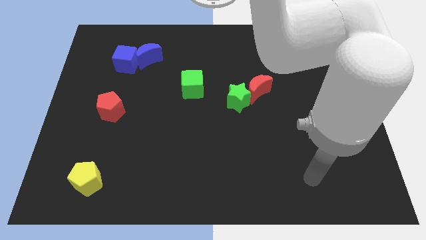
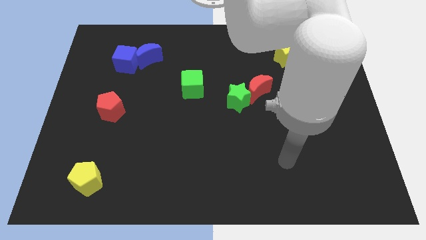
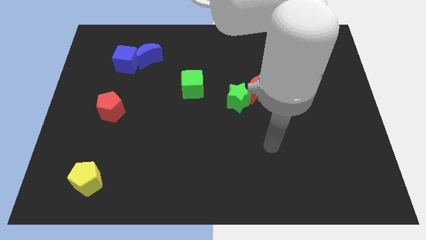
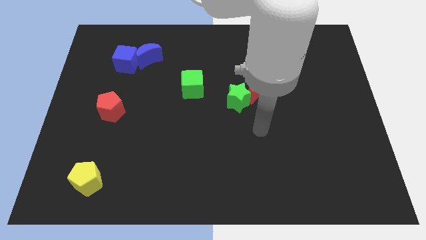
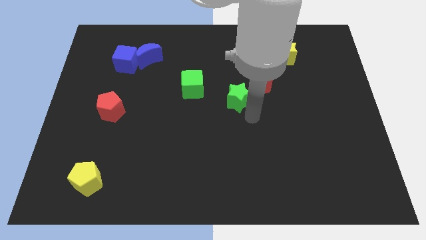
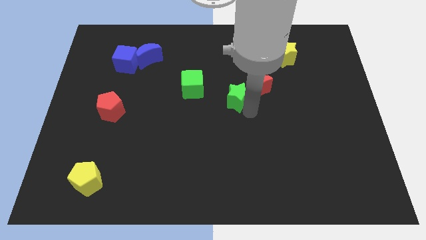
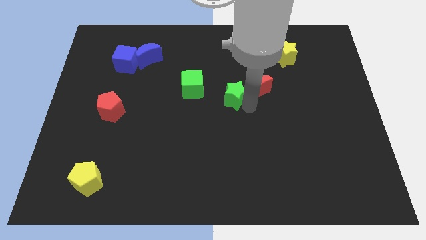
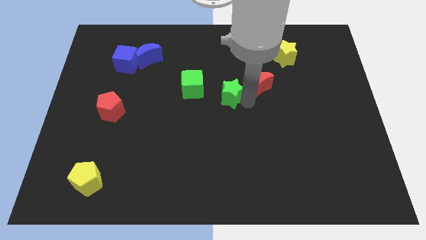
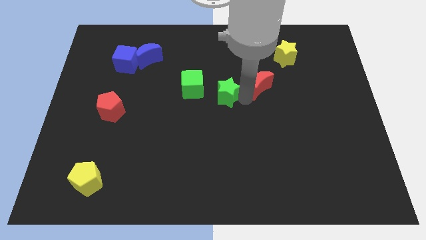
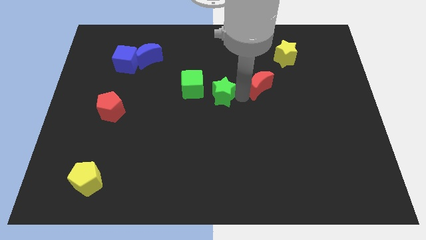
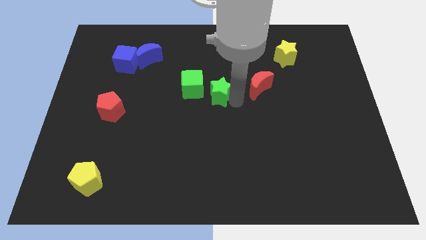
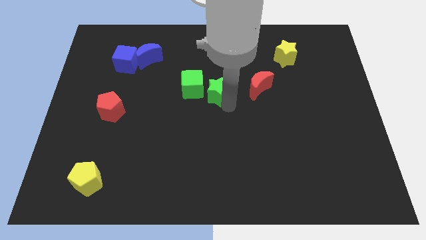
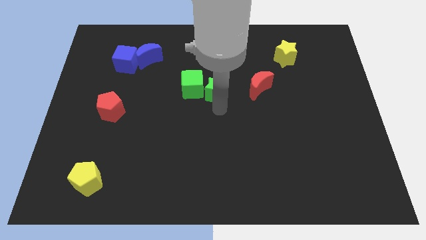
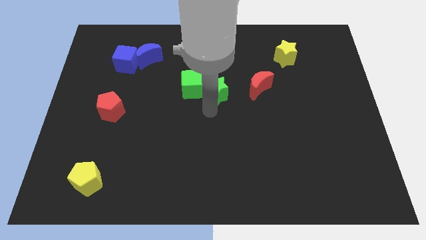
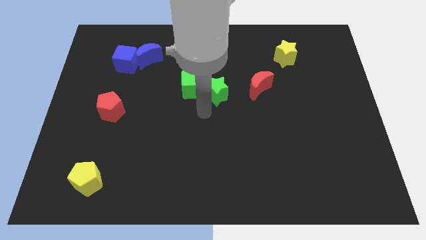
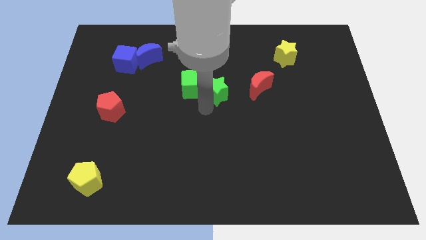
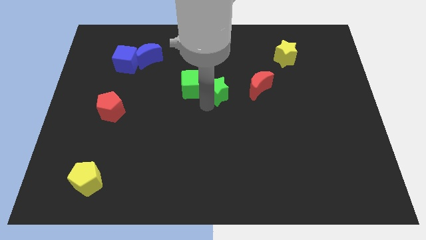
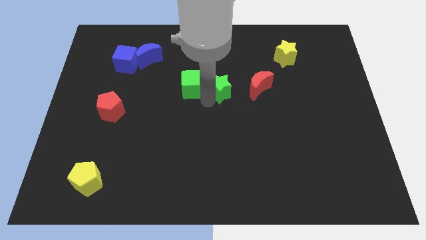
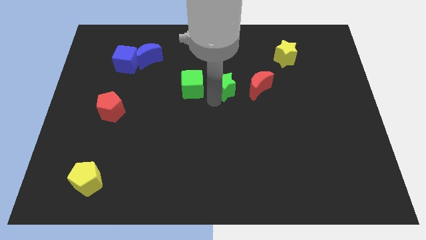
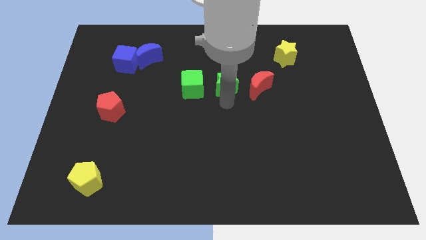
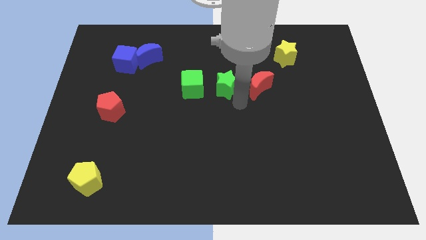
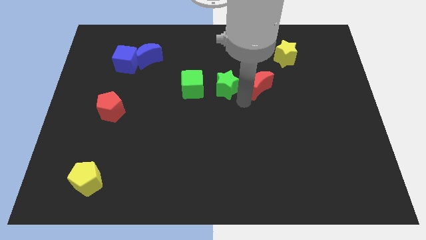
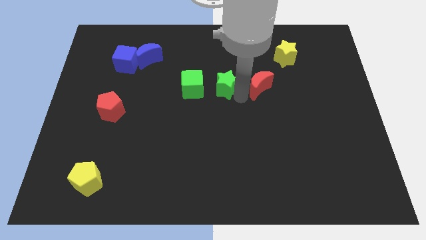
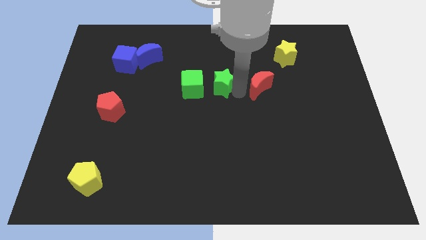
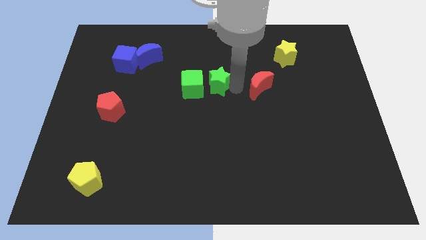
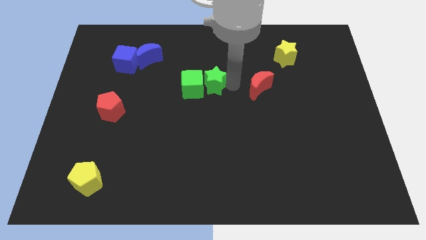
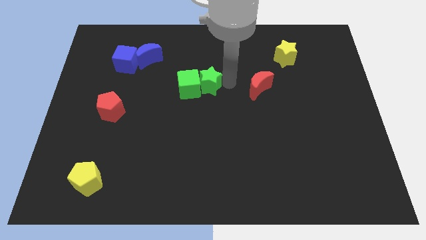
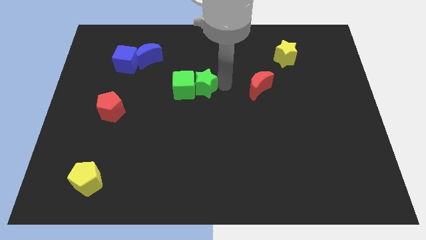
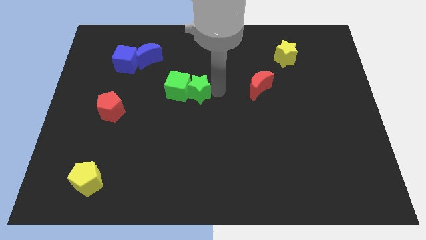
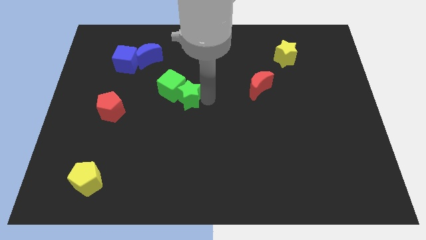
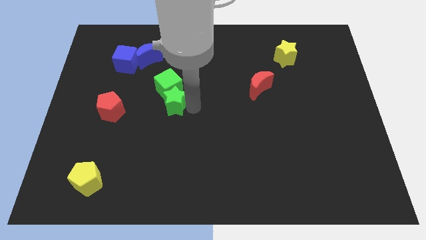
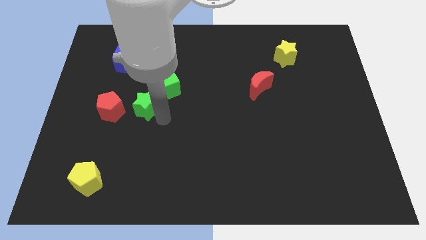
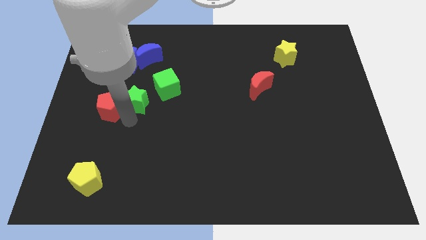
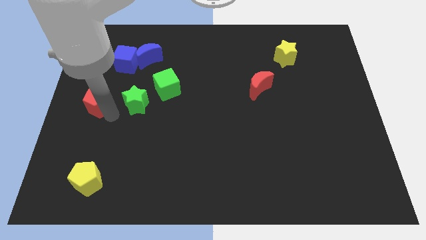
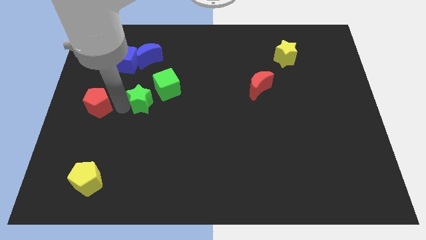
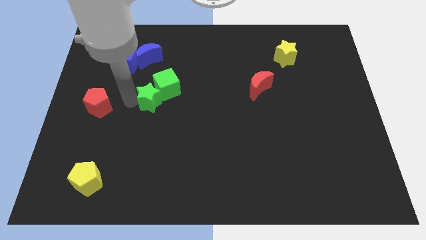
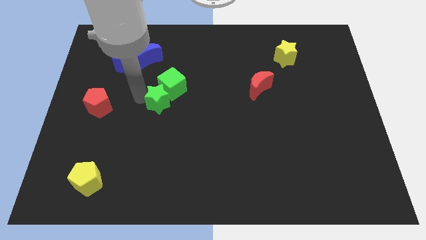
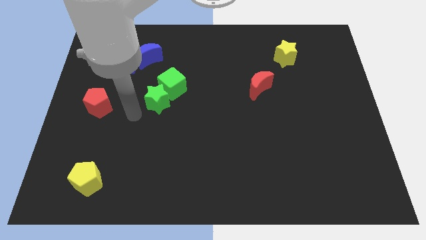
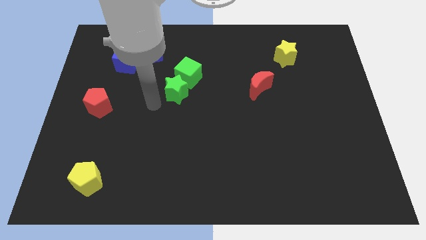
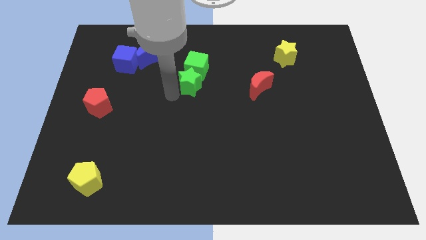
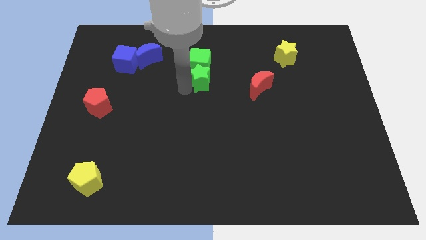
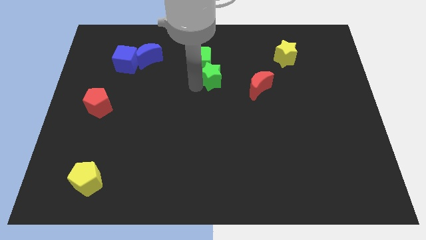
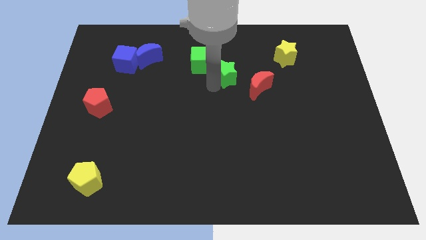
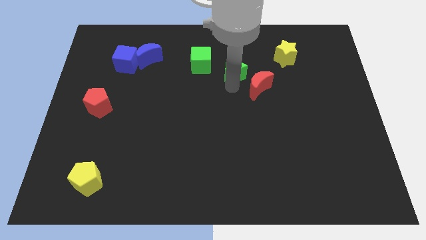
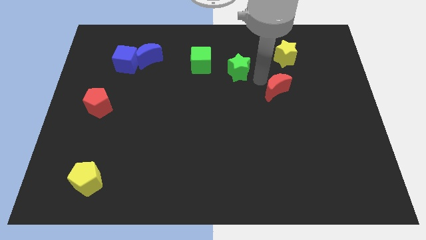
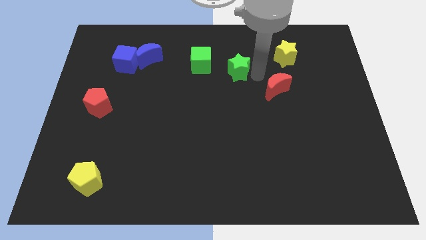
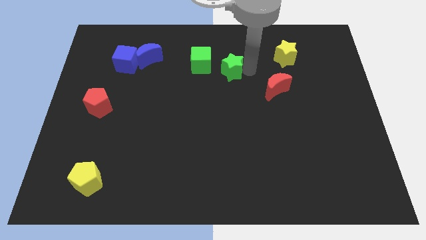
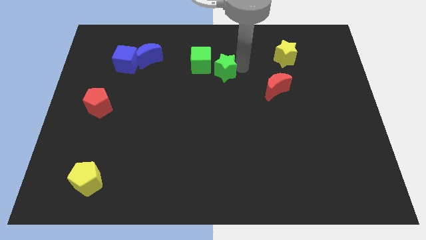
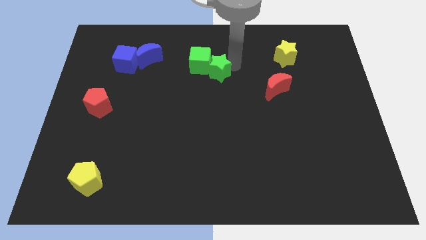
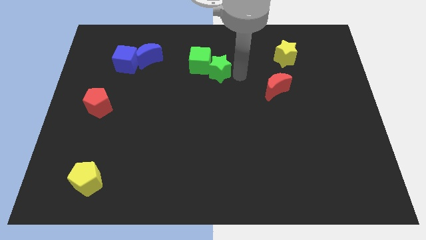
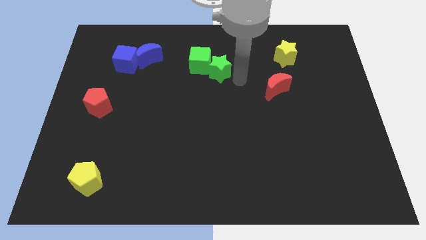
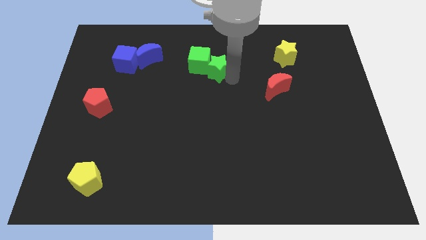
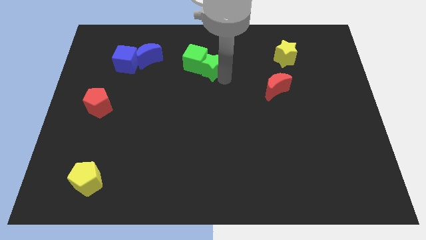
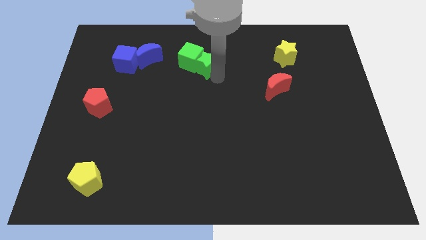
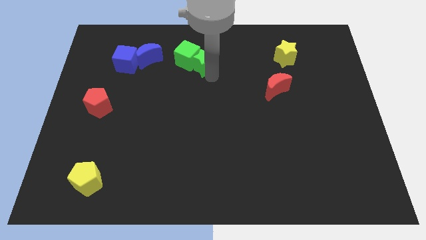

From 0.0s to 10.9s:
push the green star to the right side of the blue moon

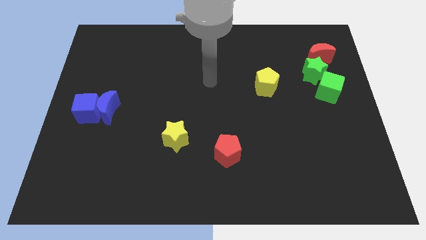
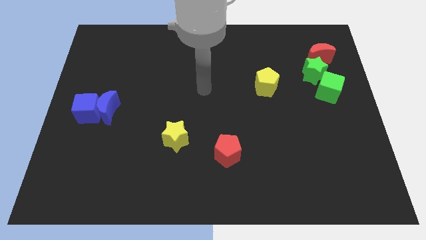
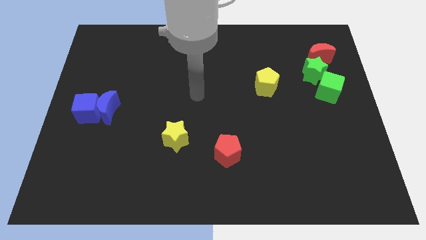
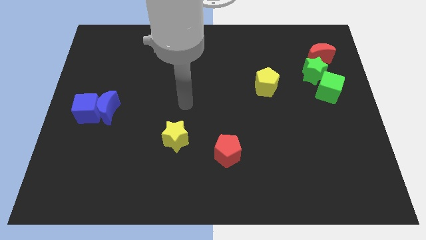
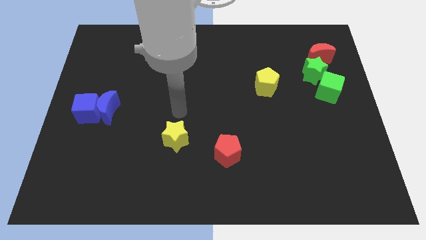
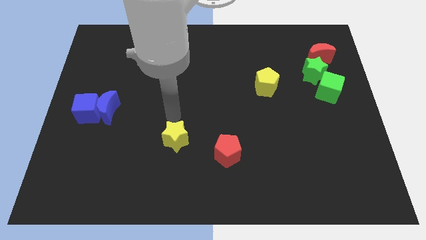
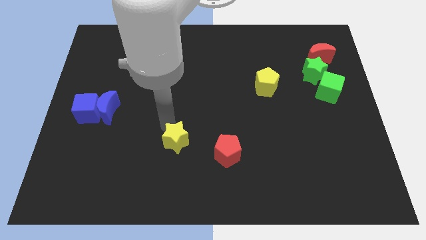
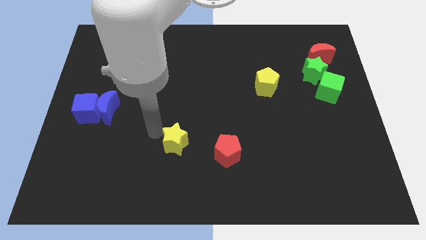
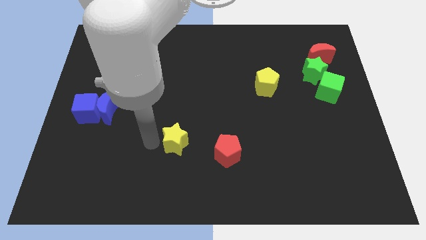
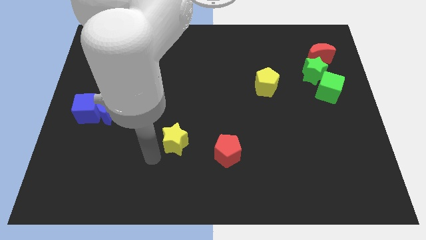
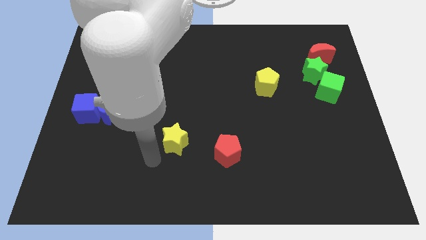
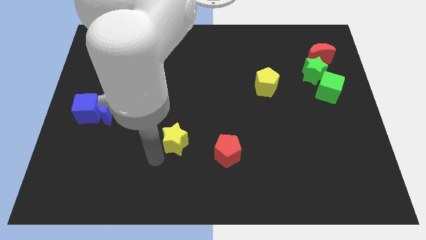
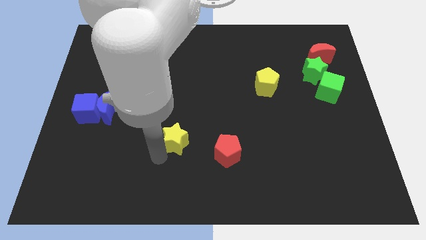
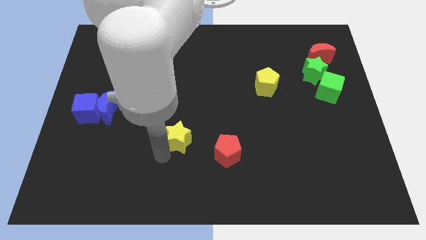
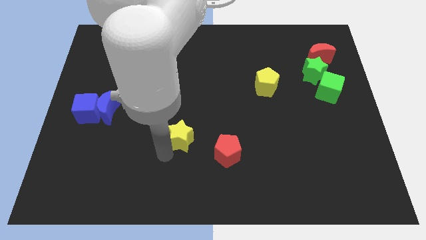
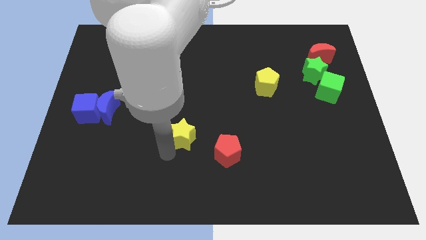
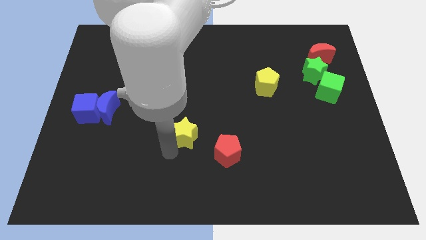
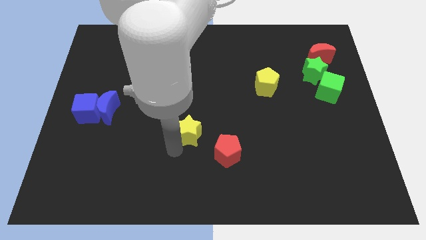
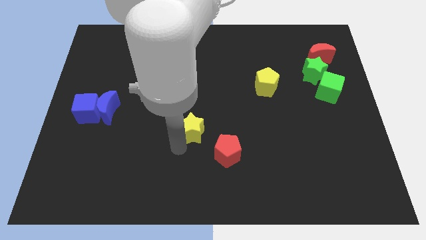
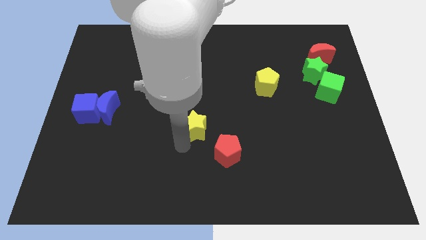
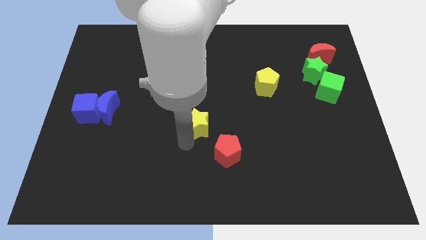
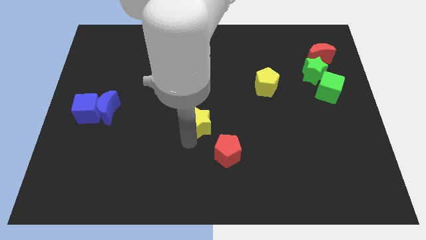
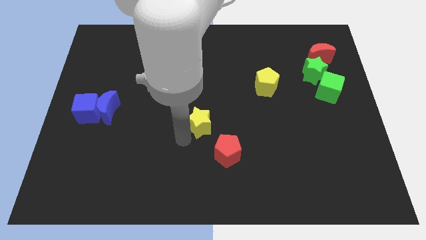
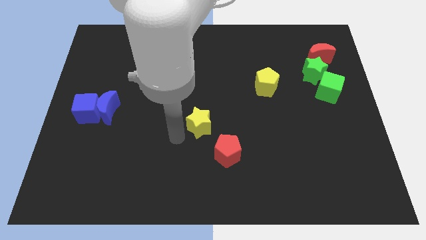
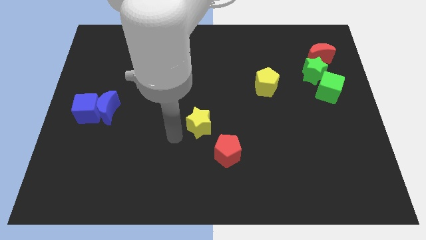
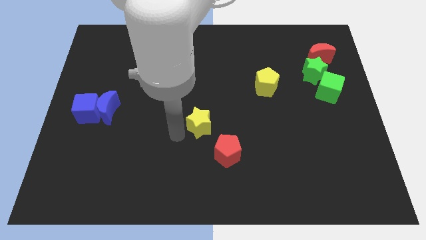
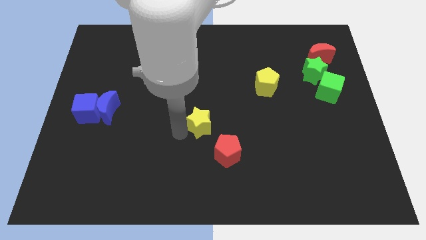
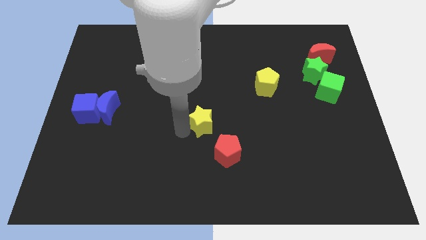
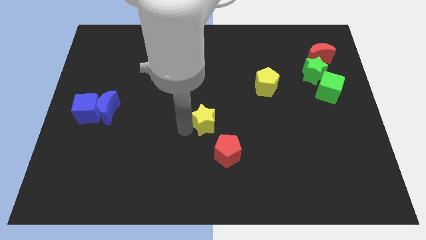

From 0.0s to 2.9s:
move the yellow star to the top of the red pentagon
